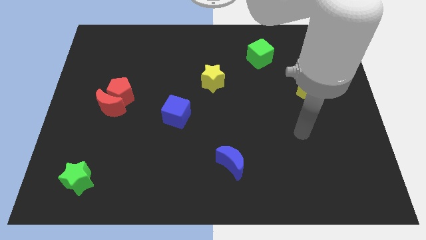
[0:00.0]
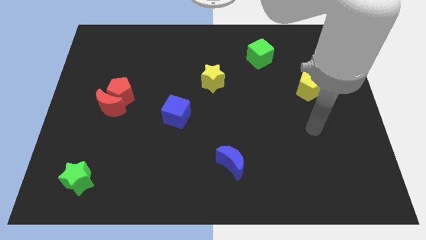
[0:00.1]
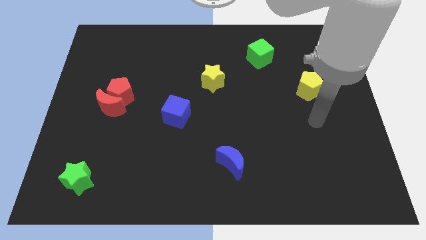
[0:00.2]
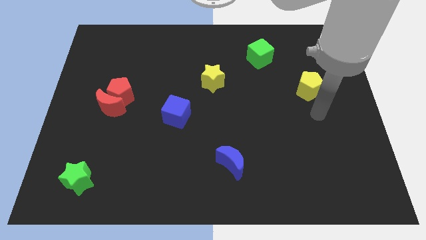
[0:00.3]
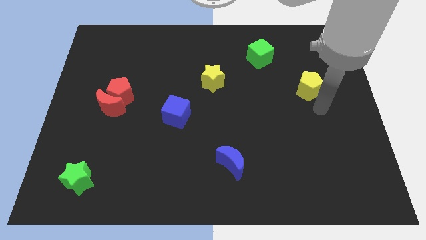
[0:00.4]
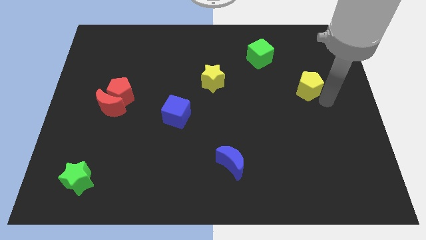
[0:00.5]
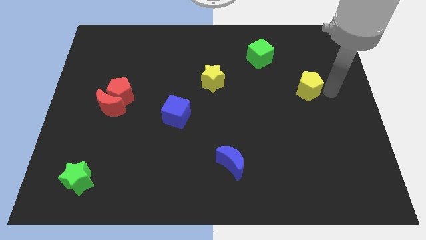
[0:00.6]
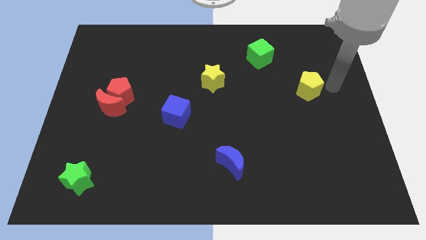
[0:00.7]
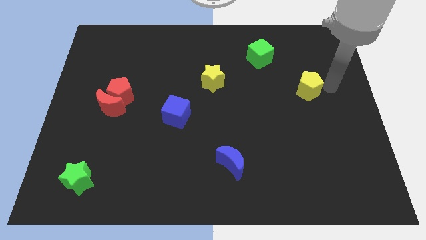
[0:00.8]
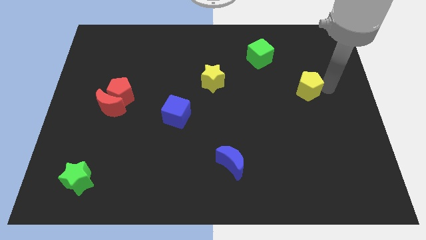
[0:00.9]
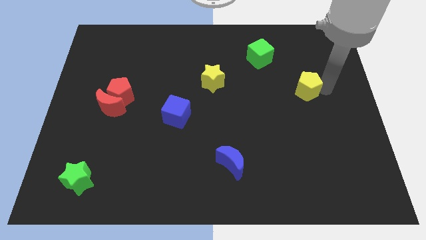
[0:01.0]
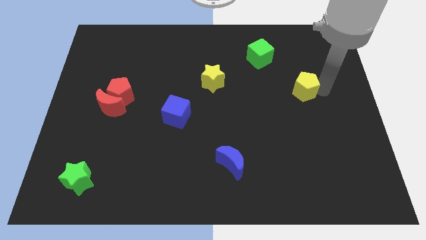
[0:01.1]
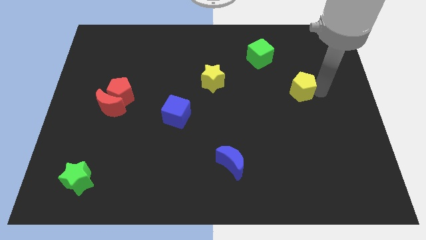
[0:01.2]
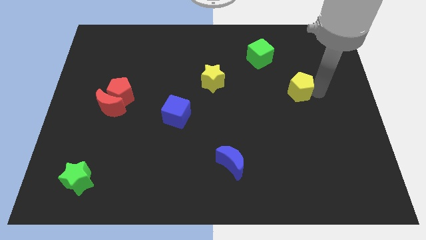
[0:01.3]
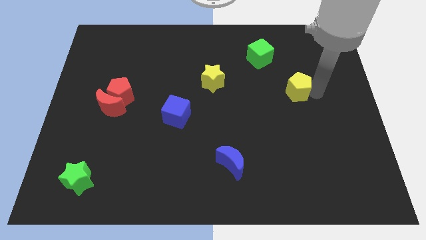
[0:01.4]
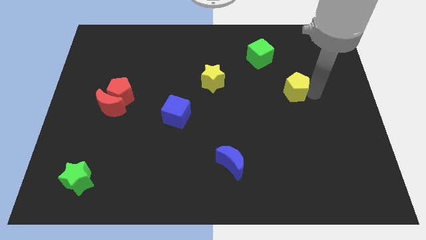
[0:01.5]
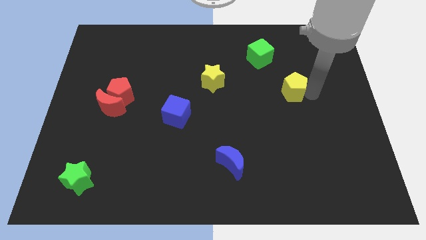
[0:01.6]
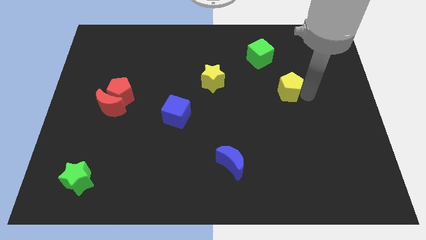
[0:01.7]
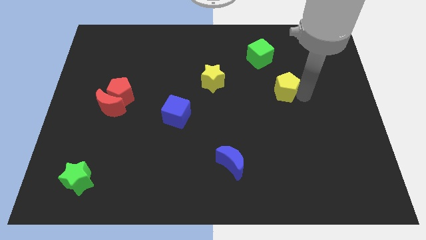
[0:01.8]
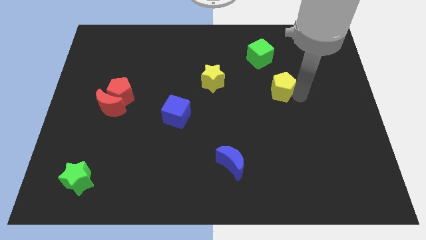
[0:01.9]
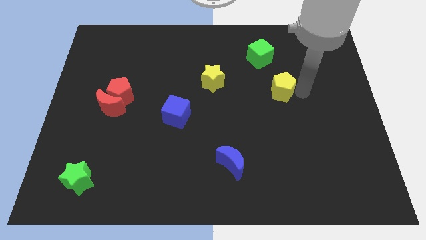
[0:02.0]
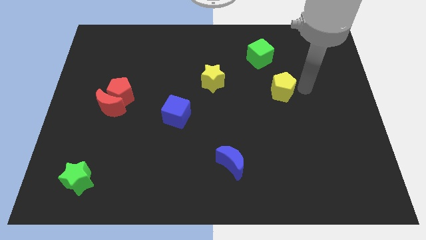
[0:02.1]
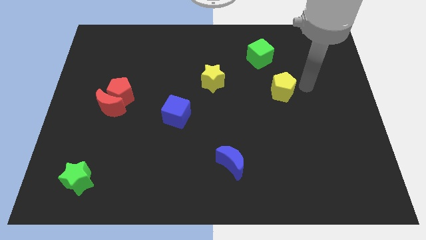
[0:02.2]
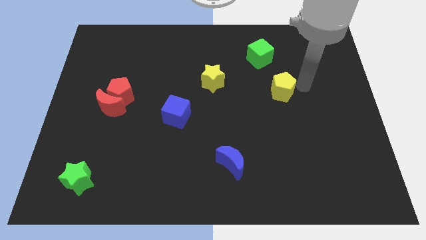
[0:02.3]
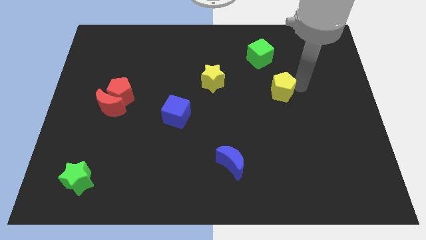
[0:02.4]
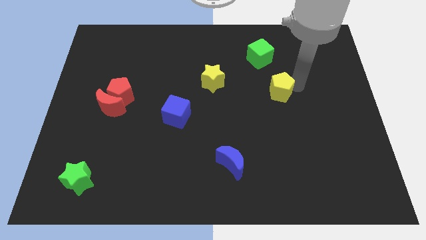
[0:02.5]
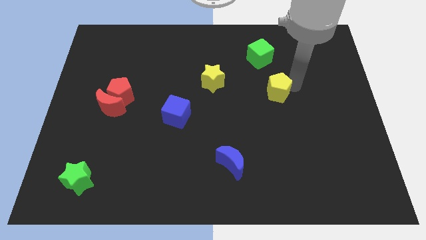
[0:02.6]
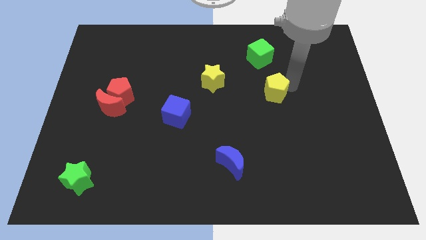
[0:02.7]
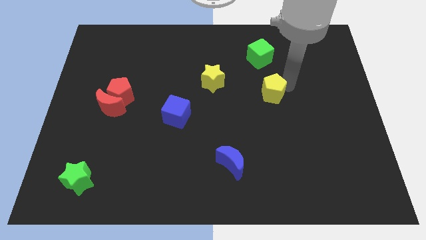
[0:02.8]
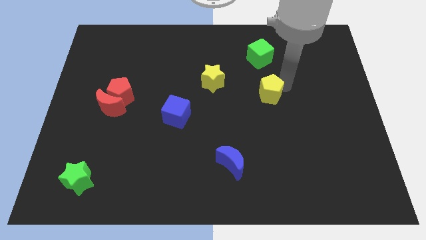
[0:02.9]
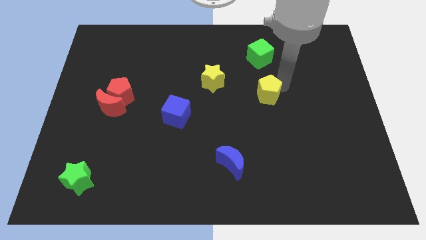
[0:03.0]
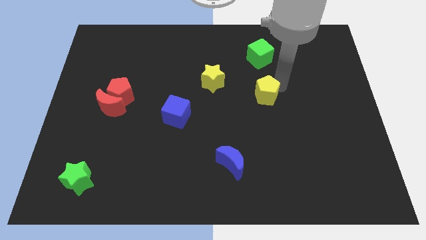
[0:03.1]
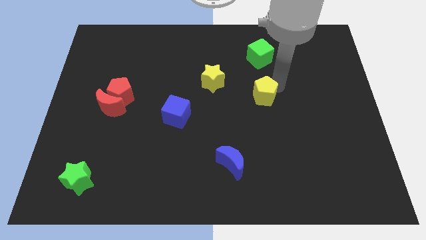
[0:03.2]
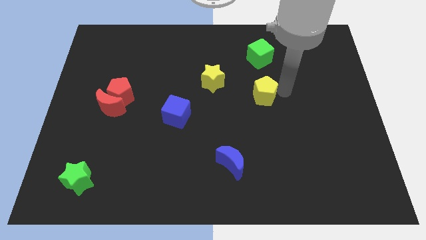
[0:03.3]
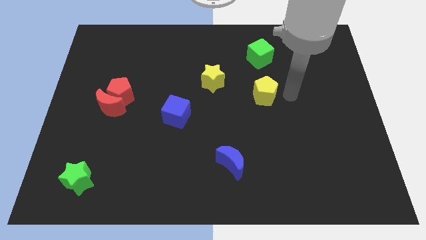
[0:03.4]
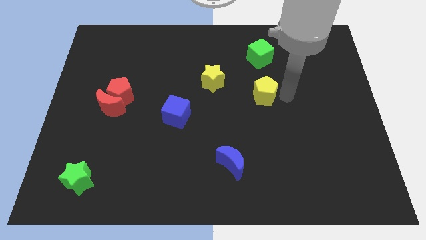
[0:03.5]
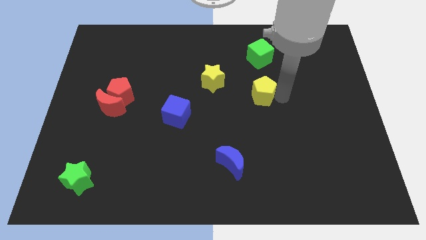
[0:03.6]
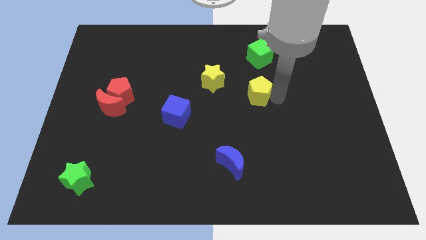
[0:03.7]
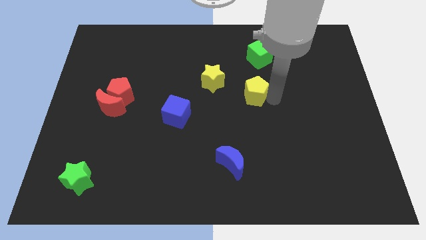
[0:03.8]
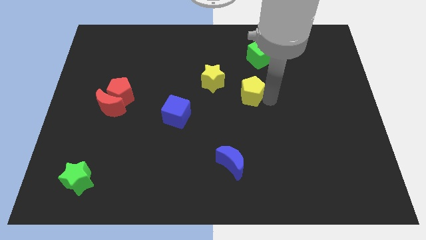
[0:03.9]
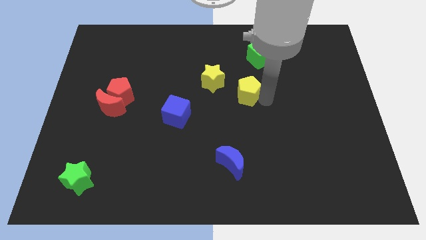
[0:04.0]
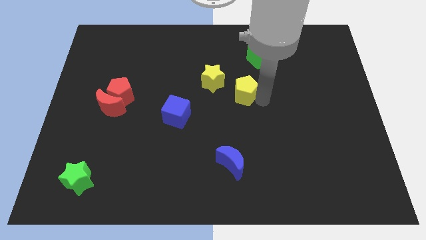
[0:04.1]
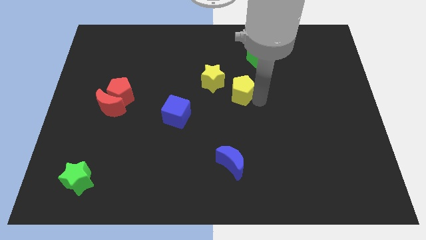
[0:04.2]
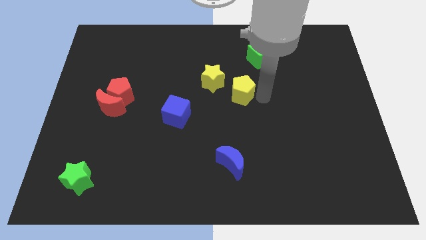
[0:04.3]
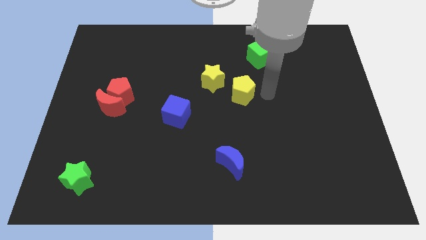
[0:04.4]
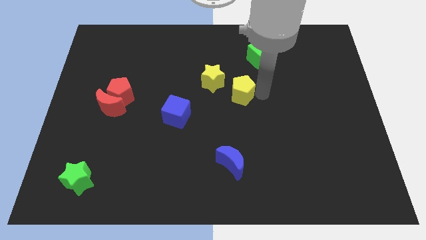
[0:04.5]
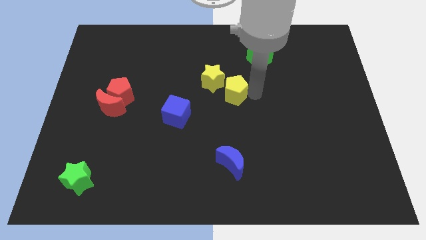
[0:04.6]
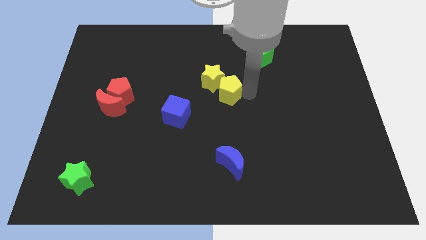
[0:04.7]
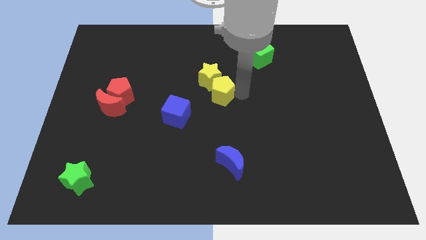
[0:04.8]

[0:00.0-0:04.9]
move the yellow pentagon left

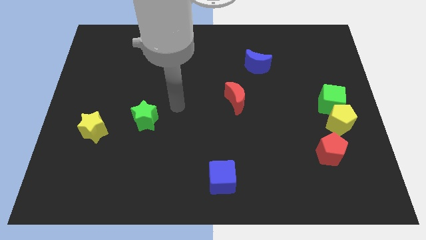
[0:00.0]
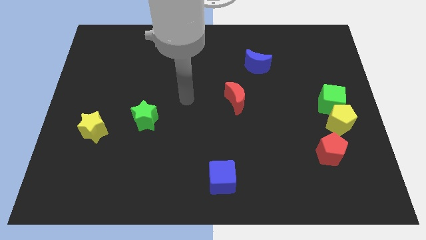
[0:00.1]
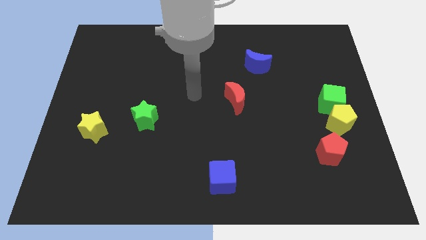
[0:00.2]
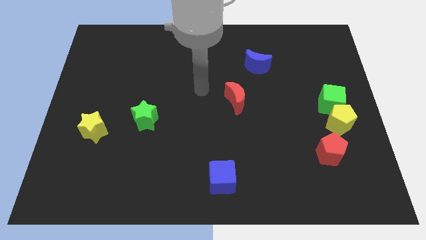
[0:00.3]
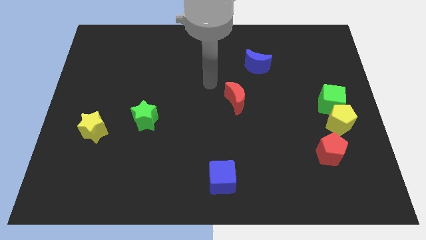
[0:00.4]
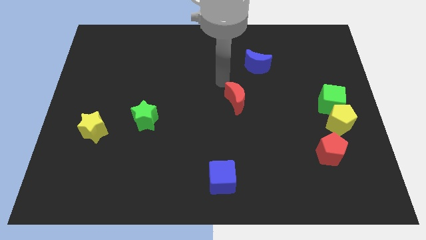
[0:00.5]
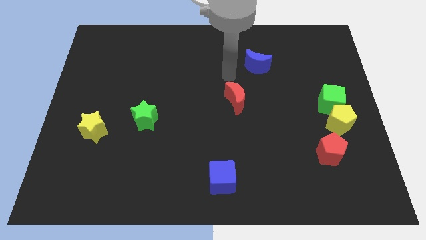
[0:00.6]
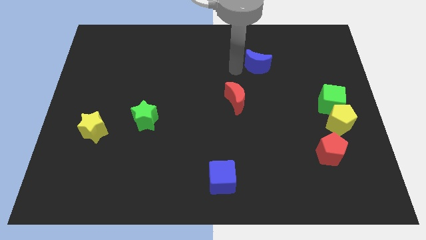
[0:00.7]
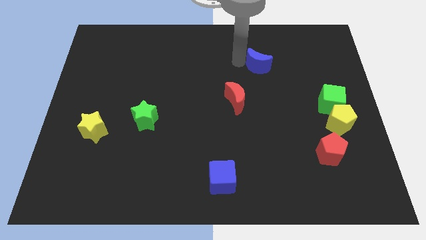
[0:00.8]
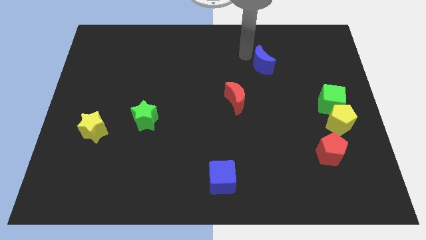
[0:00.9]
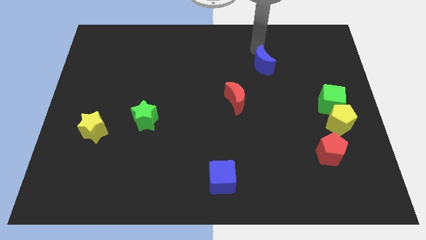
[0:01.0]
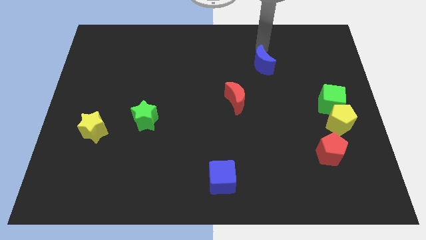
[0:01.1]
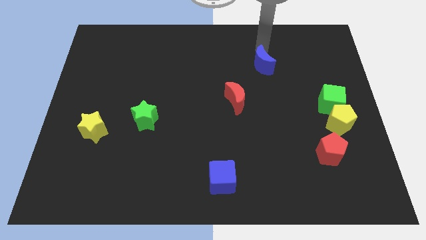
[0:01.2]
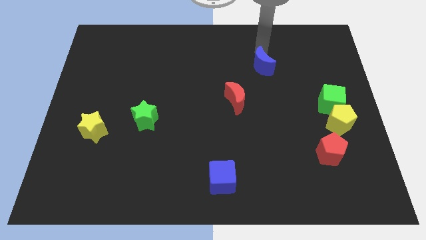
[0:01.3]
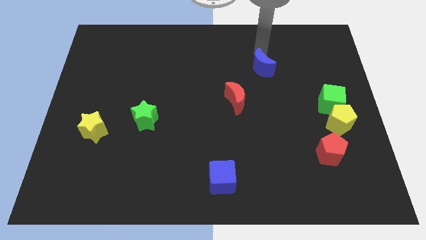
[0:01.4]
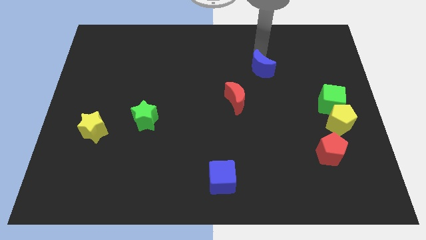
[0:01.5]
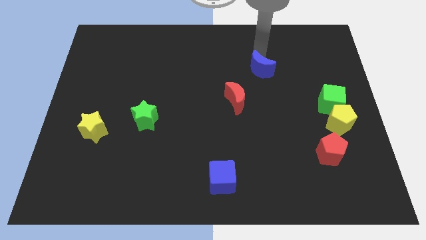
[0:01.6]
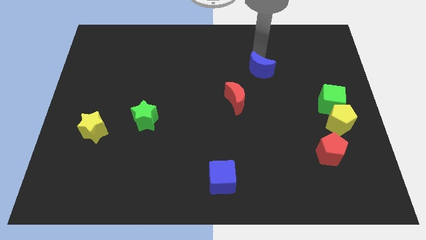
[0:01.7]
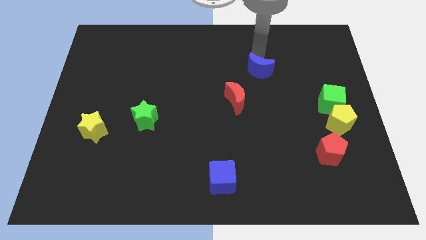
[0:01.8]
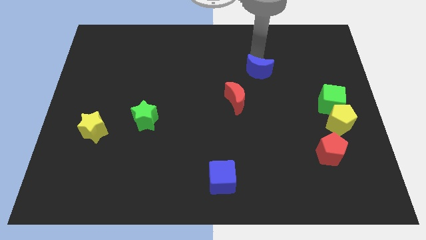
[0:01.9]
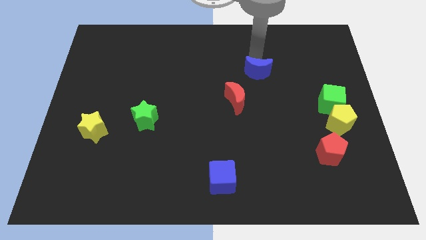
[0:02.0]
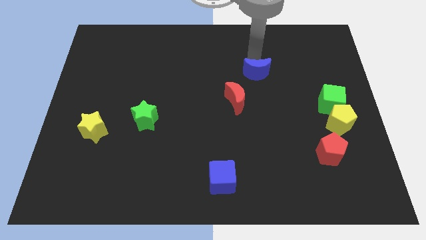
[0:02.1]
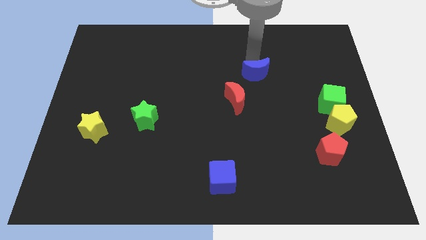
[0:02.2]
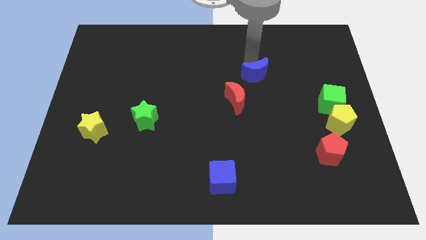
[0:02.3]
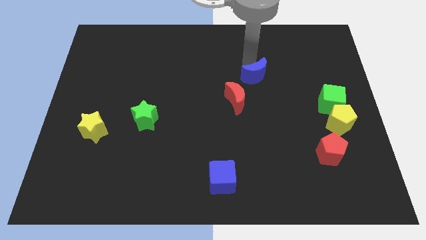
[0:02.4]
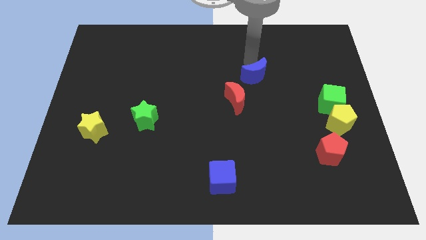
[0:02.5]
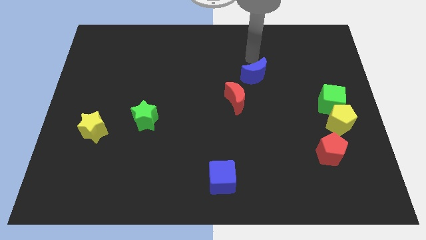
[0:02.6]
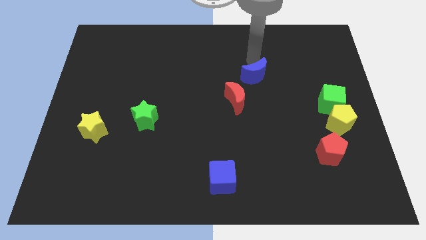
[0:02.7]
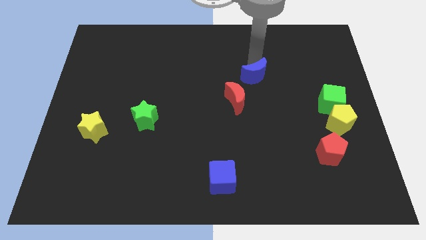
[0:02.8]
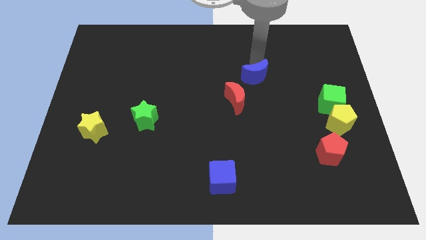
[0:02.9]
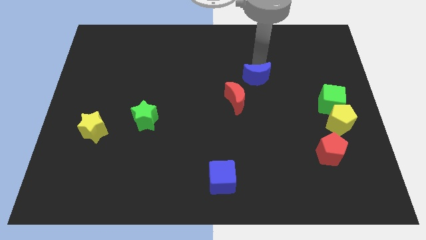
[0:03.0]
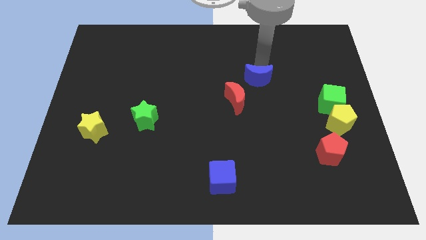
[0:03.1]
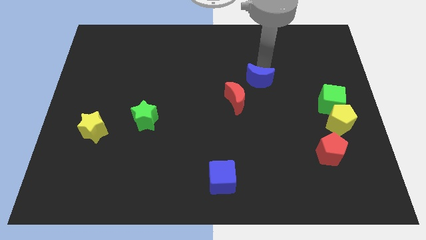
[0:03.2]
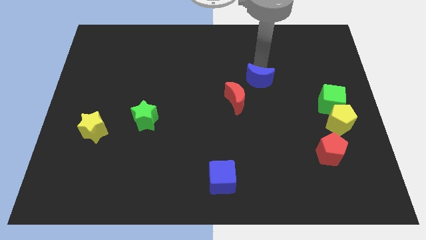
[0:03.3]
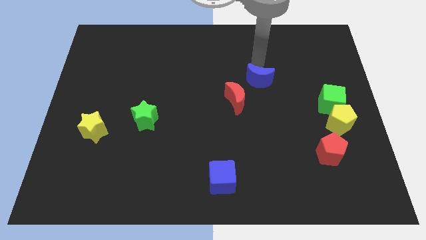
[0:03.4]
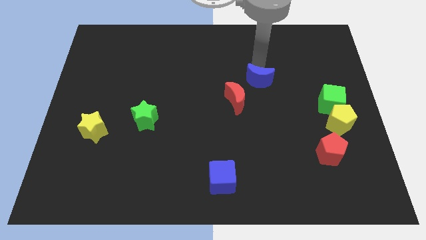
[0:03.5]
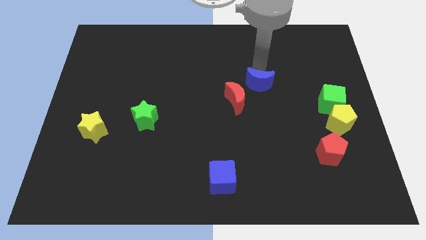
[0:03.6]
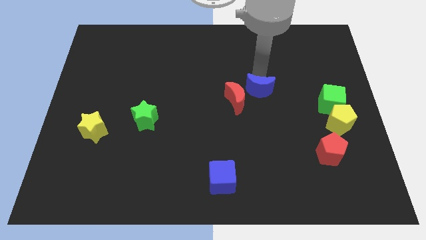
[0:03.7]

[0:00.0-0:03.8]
slightly slide the blue moon downwards
